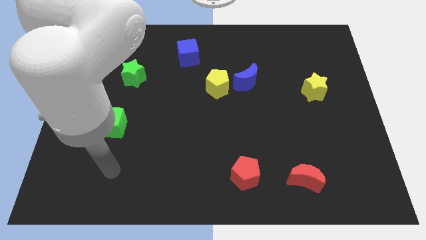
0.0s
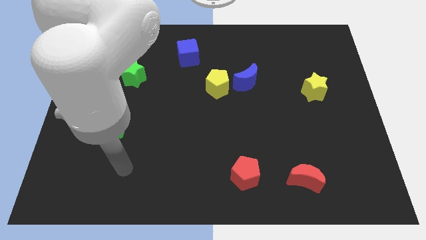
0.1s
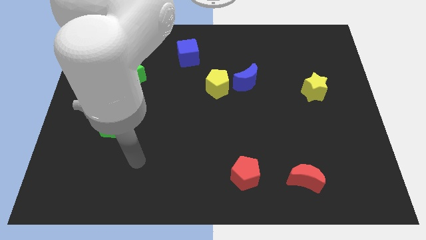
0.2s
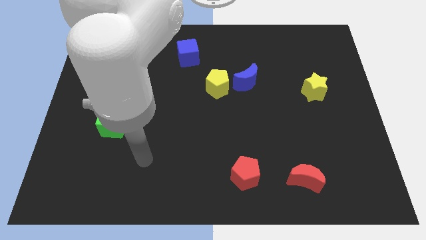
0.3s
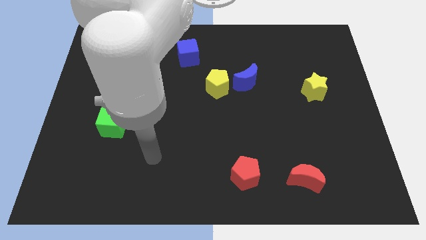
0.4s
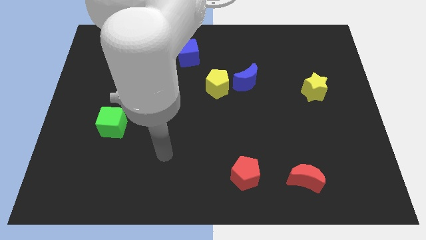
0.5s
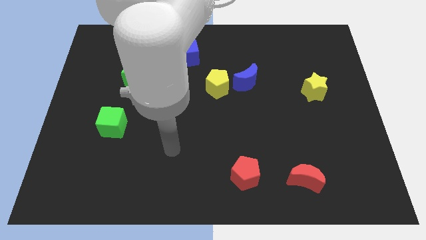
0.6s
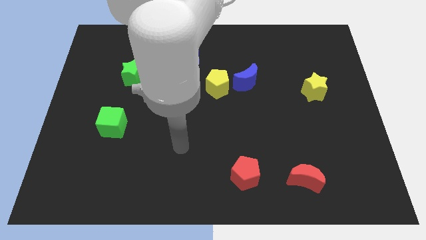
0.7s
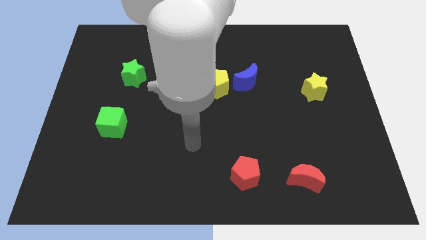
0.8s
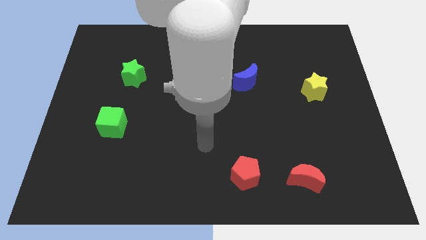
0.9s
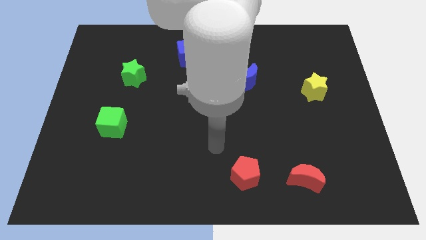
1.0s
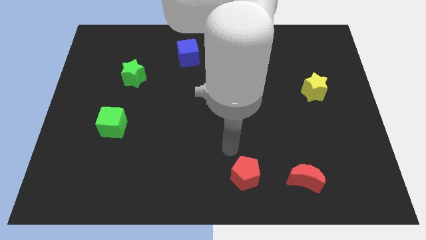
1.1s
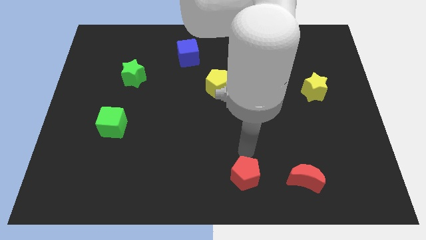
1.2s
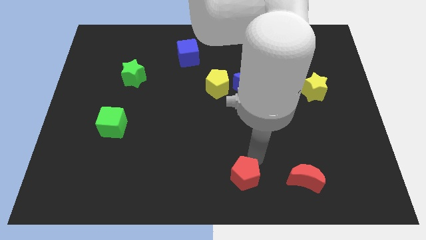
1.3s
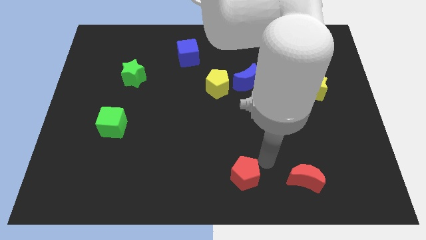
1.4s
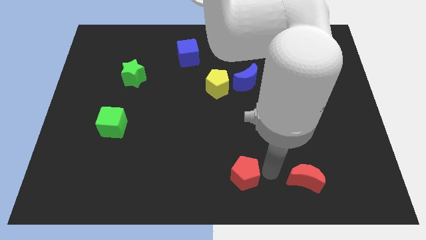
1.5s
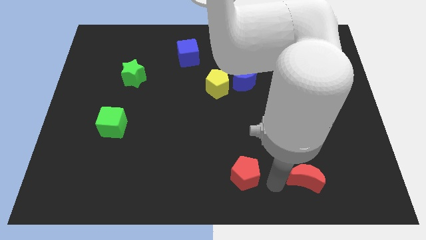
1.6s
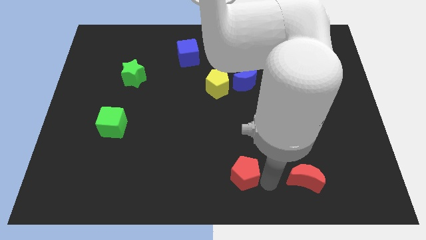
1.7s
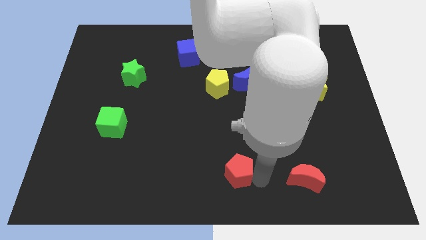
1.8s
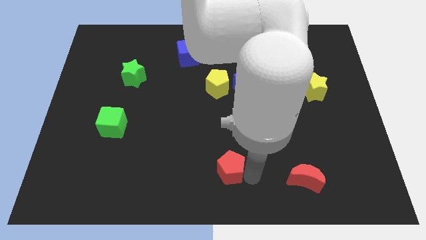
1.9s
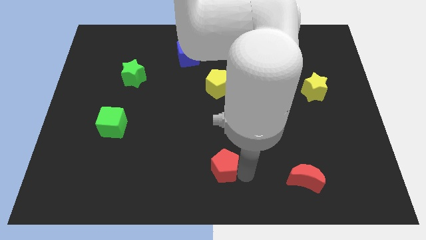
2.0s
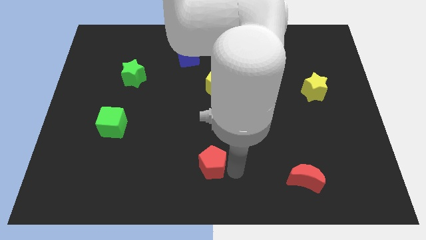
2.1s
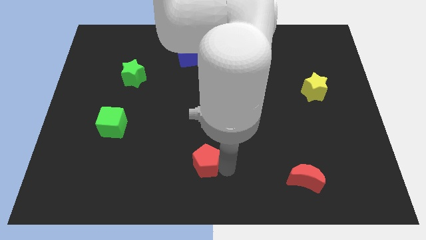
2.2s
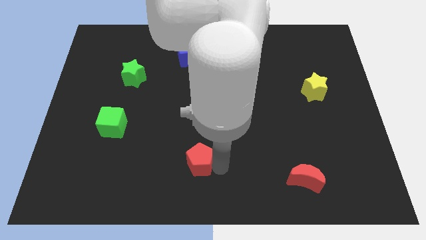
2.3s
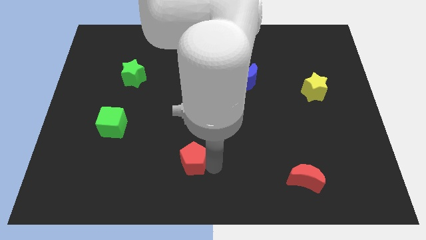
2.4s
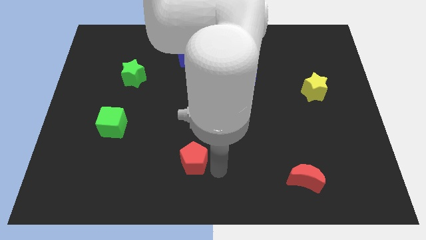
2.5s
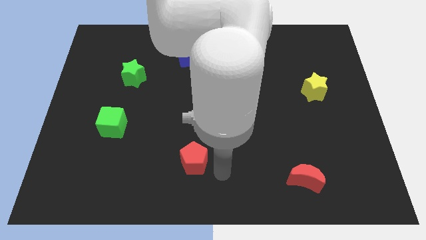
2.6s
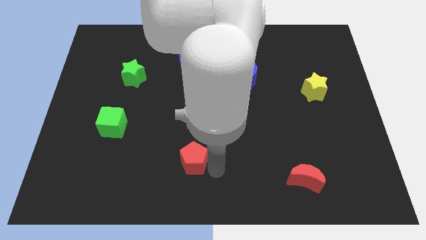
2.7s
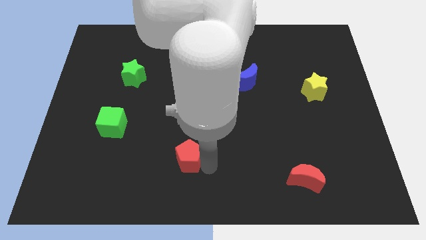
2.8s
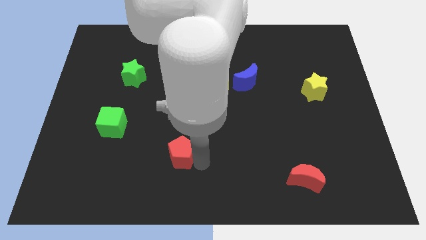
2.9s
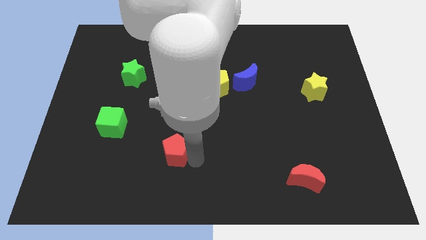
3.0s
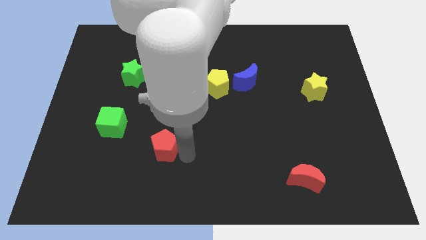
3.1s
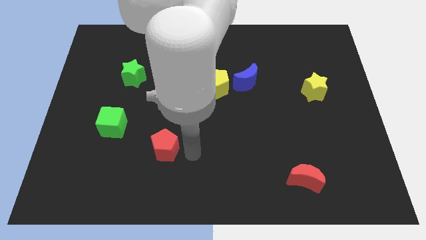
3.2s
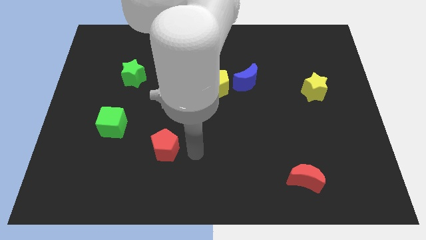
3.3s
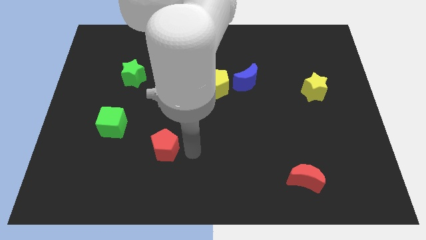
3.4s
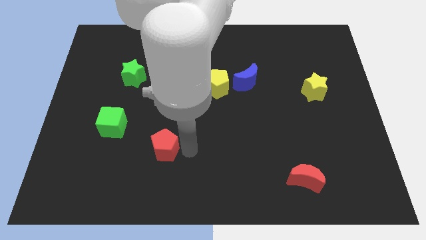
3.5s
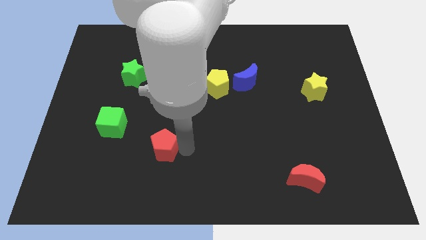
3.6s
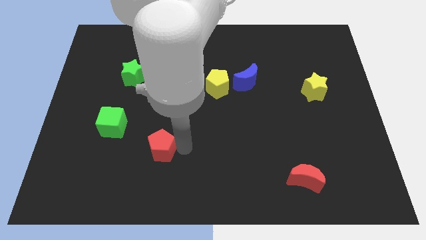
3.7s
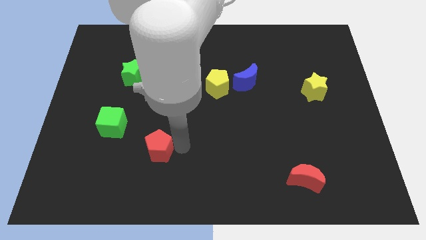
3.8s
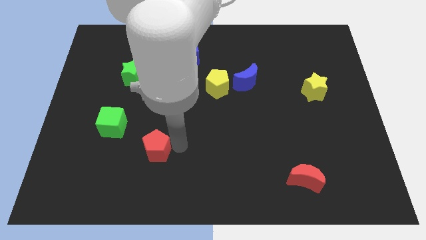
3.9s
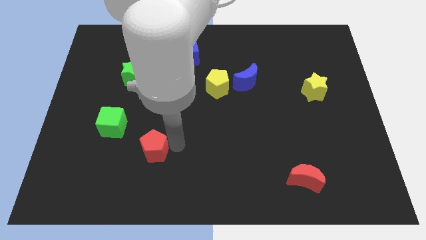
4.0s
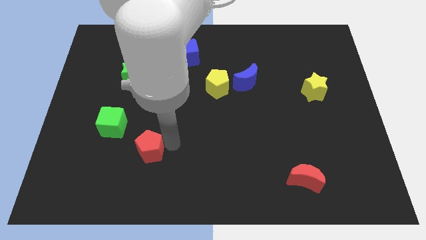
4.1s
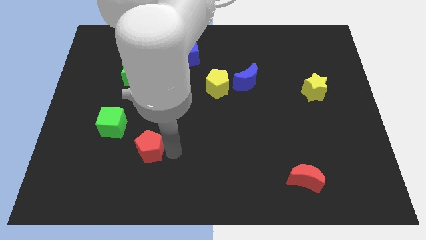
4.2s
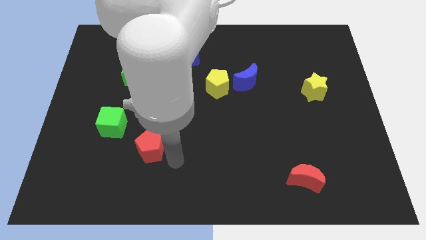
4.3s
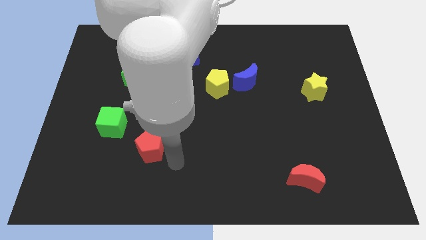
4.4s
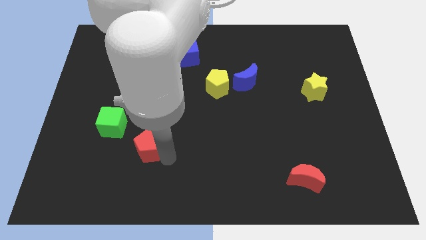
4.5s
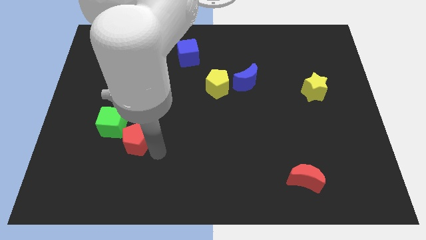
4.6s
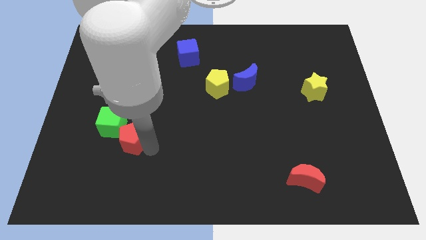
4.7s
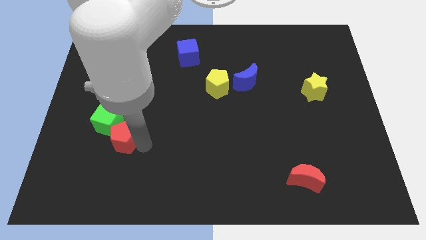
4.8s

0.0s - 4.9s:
move the red pentagon next to the green cube

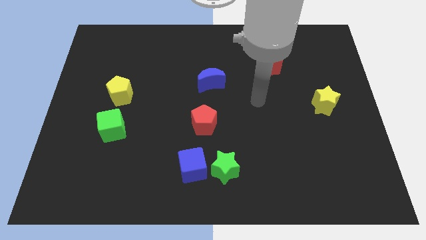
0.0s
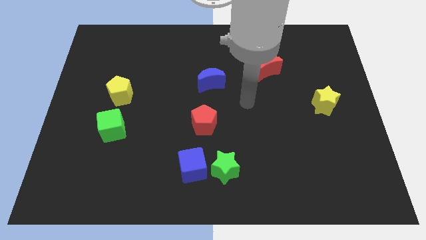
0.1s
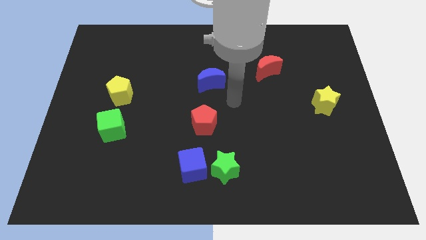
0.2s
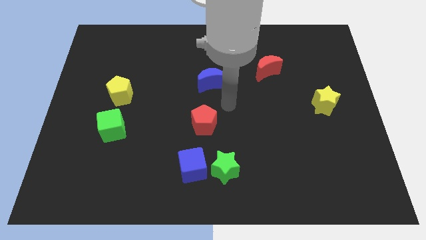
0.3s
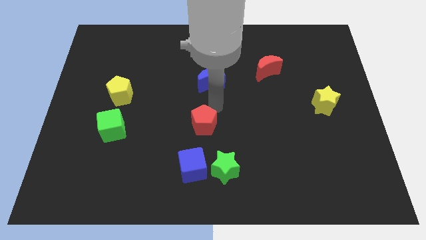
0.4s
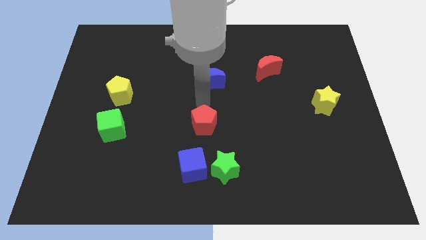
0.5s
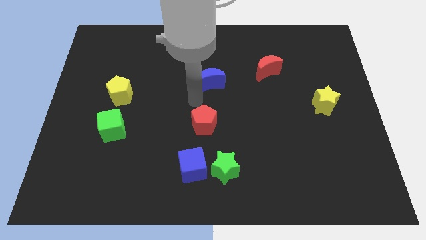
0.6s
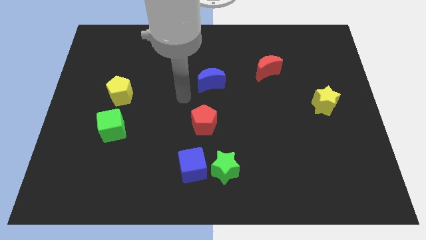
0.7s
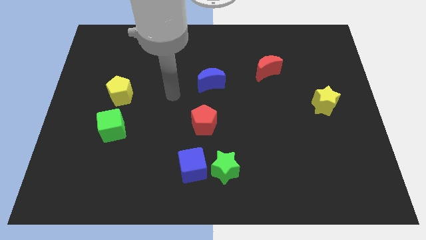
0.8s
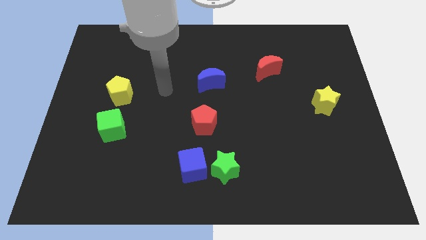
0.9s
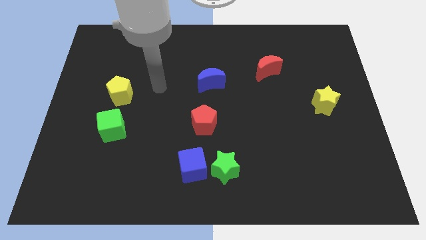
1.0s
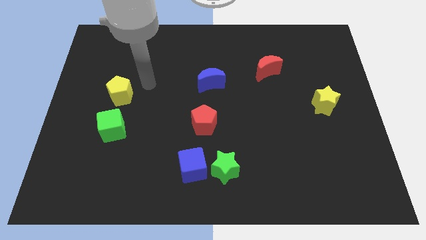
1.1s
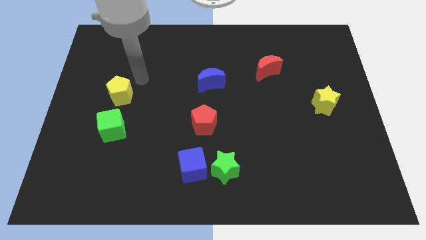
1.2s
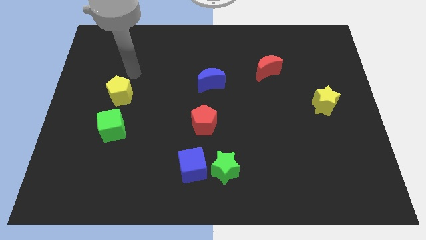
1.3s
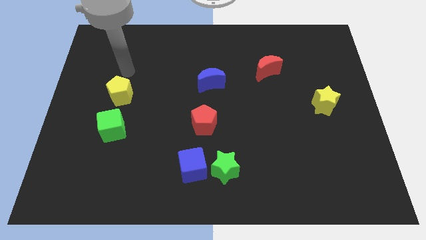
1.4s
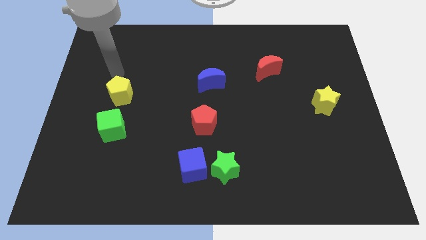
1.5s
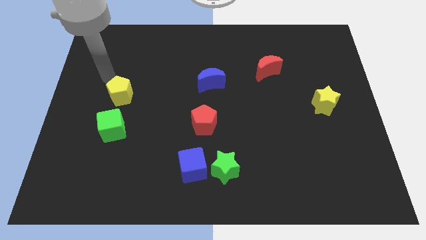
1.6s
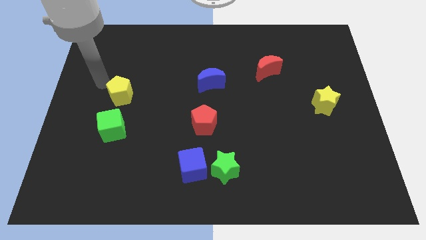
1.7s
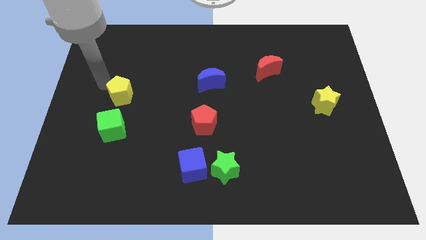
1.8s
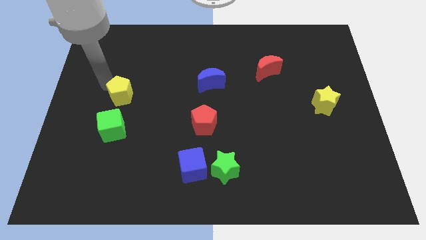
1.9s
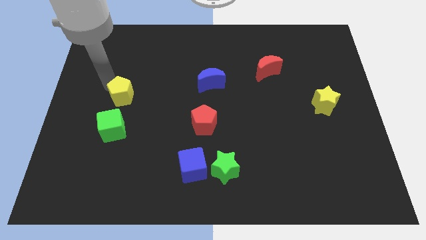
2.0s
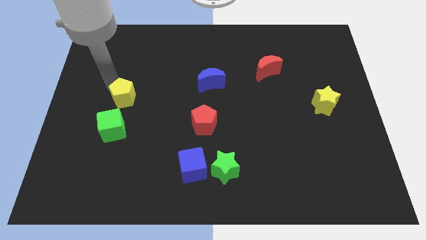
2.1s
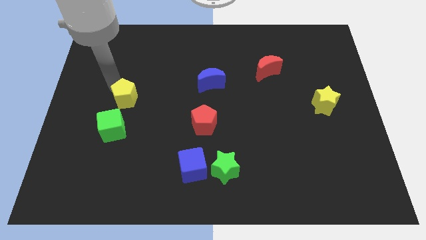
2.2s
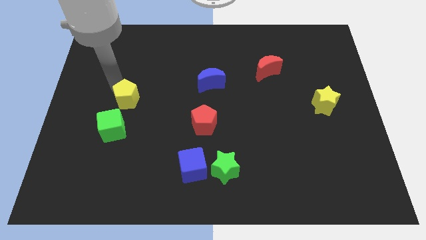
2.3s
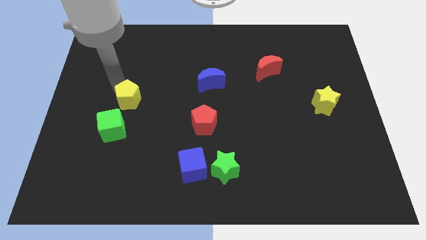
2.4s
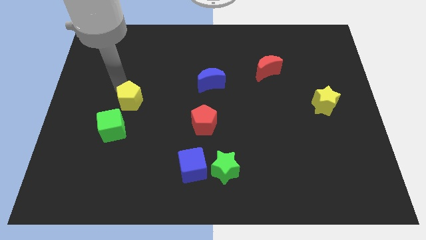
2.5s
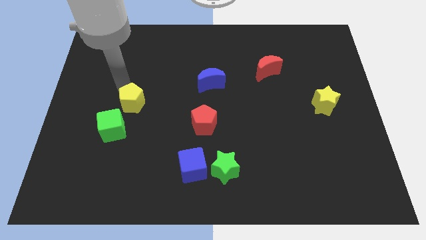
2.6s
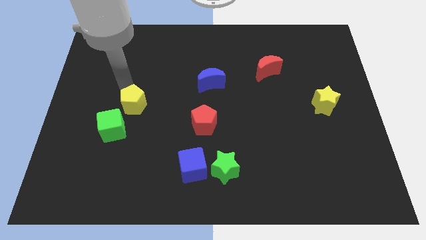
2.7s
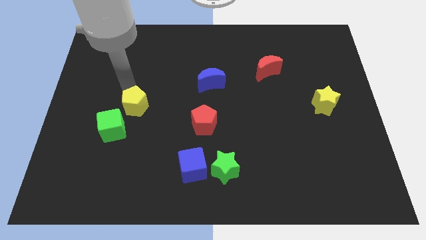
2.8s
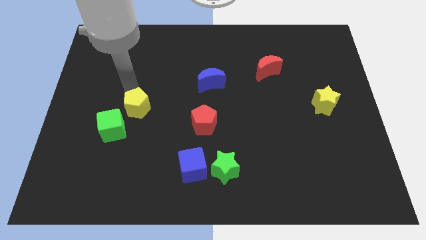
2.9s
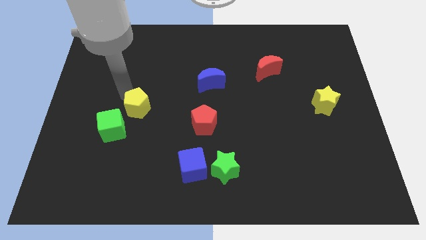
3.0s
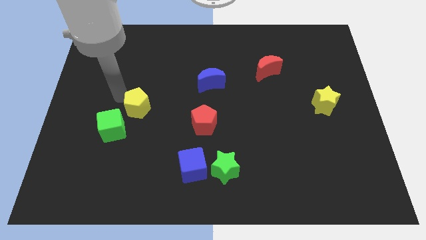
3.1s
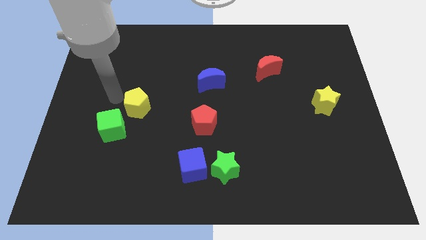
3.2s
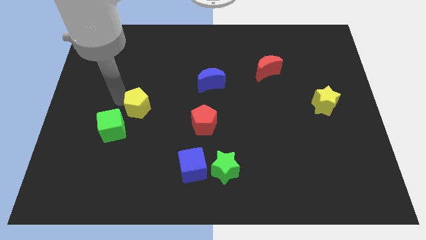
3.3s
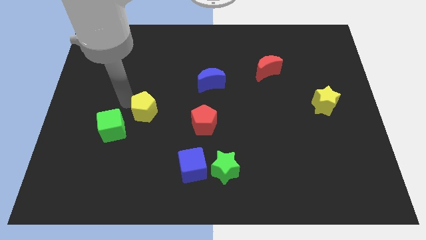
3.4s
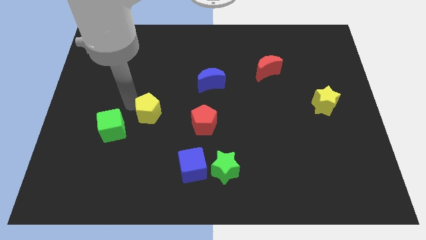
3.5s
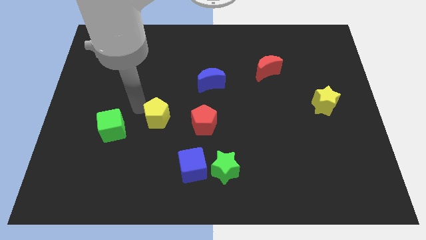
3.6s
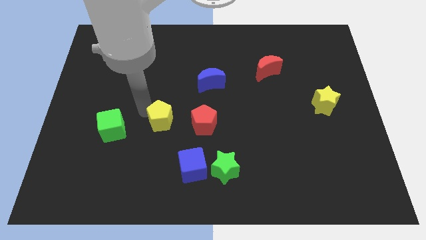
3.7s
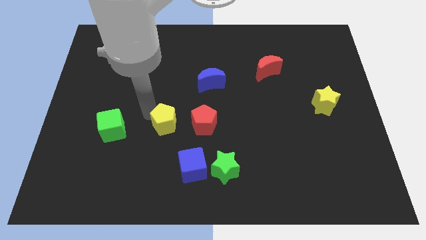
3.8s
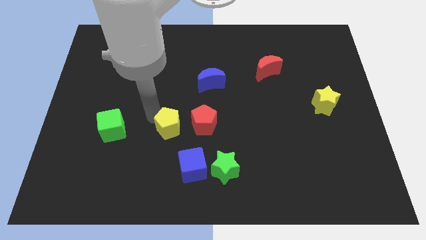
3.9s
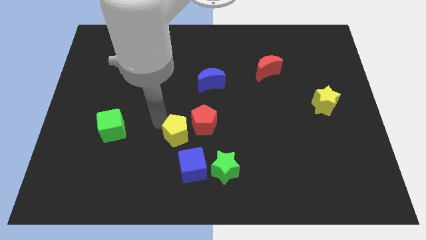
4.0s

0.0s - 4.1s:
slide the yellow pentagon towards the red pentagon
